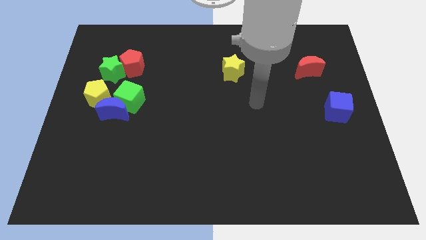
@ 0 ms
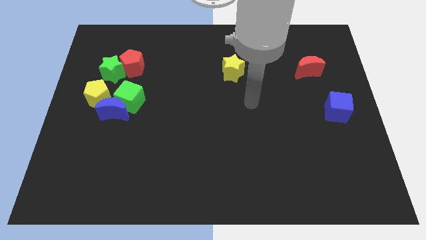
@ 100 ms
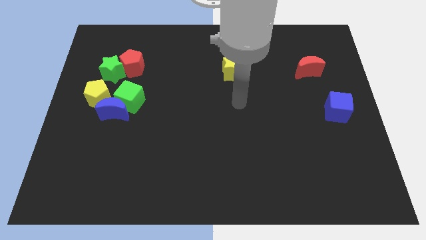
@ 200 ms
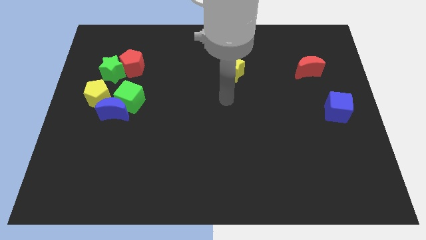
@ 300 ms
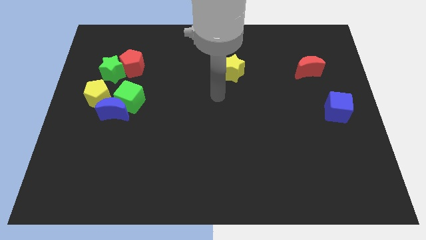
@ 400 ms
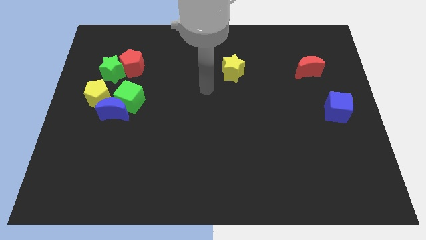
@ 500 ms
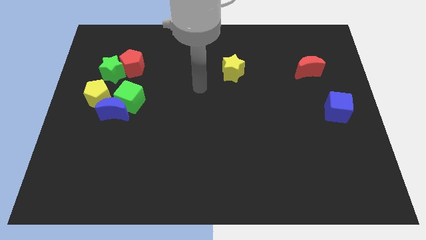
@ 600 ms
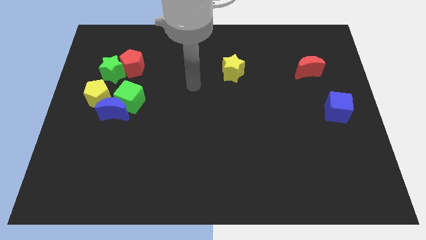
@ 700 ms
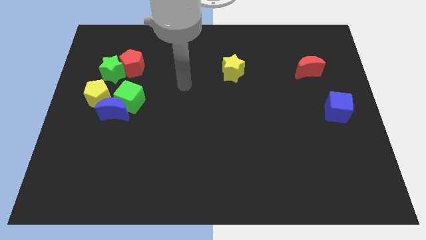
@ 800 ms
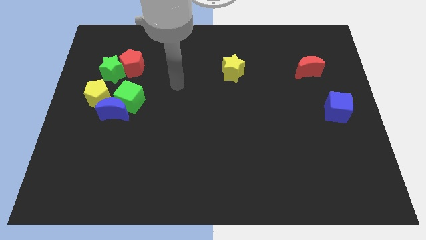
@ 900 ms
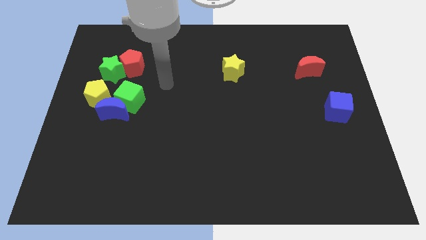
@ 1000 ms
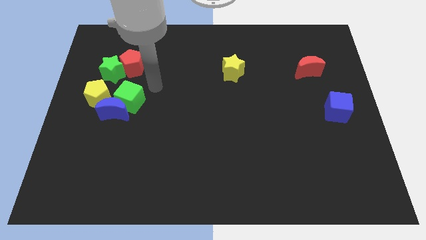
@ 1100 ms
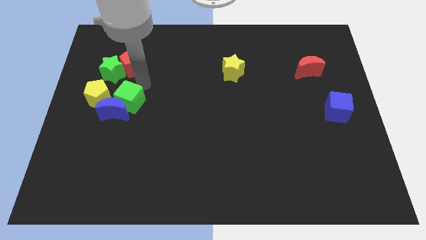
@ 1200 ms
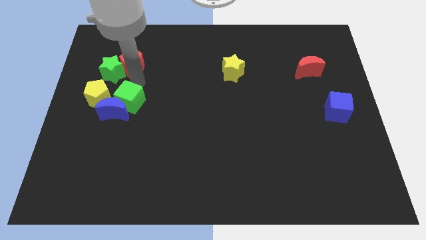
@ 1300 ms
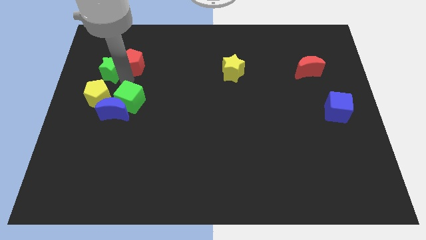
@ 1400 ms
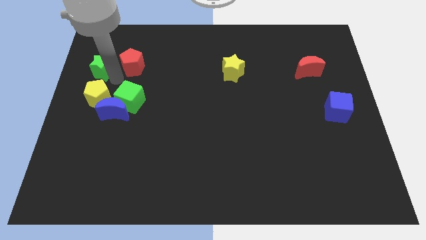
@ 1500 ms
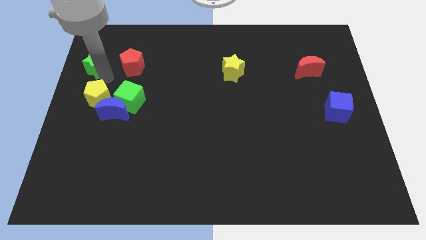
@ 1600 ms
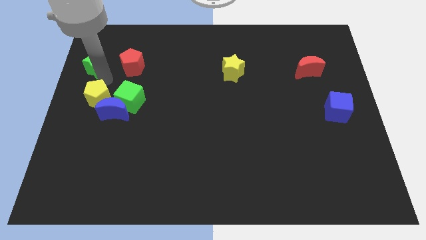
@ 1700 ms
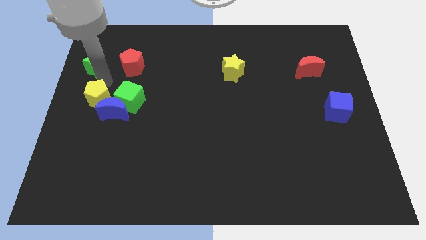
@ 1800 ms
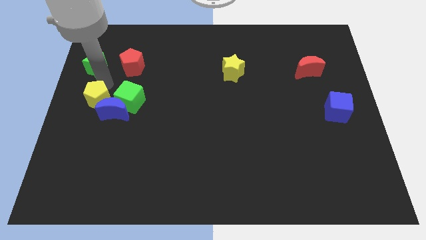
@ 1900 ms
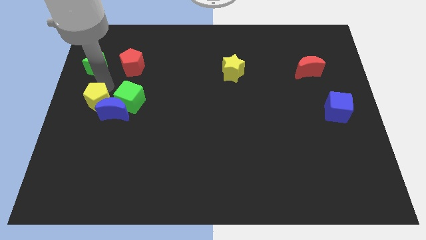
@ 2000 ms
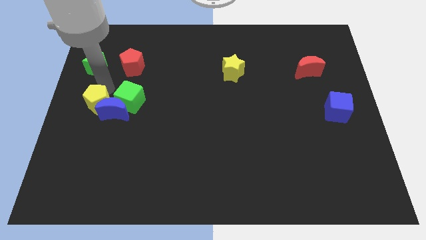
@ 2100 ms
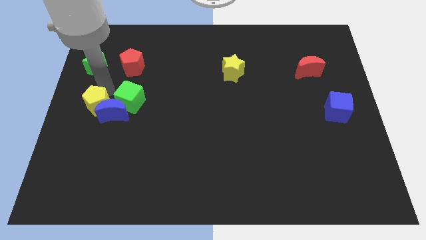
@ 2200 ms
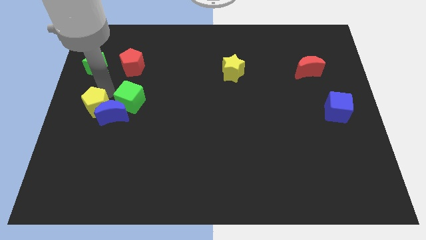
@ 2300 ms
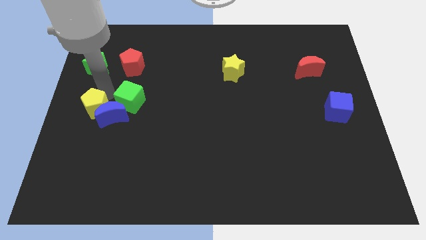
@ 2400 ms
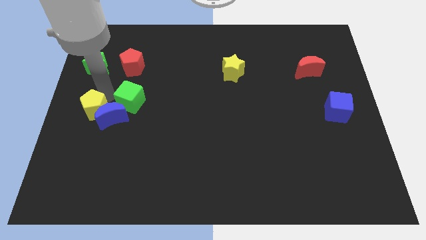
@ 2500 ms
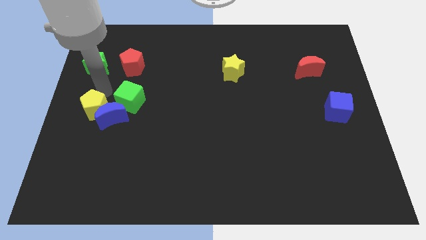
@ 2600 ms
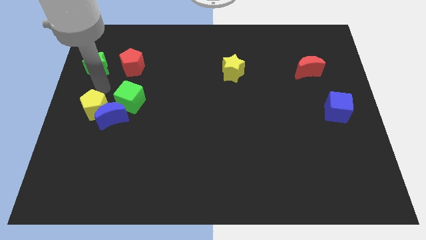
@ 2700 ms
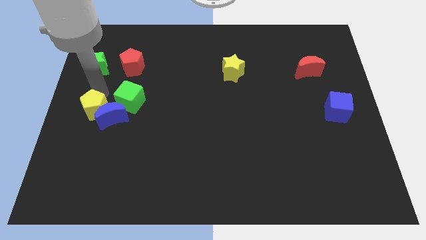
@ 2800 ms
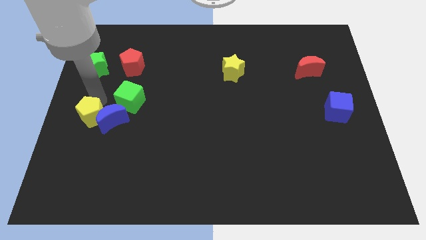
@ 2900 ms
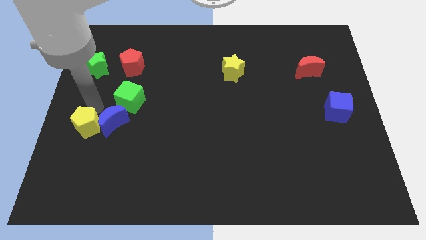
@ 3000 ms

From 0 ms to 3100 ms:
slide the yellow pentagon downwards a bit

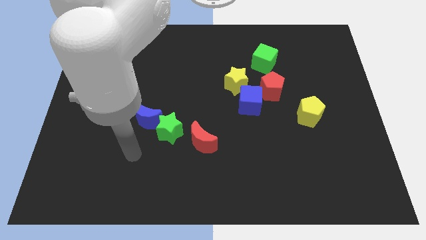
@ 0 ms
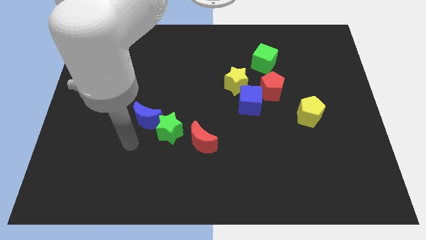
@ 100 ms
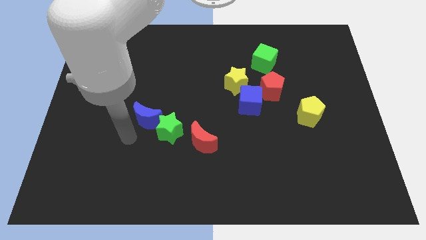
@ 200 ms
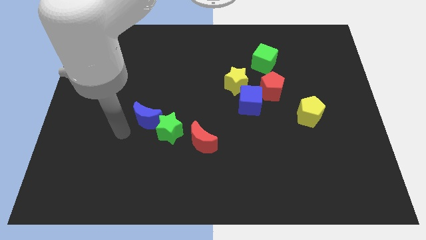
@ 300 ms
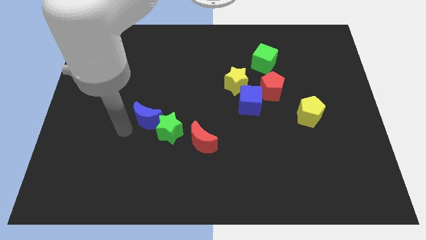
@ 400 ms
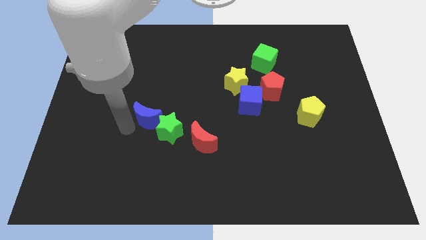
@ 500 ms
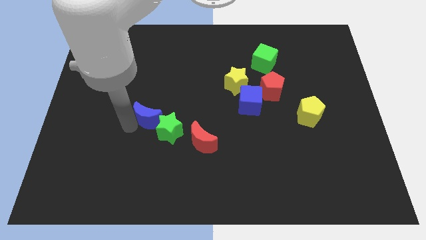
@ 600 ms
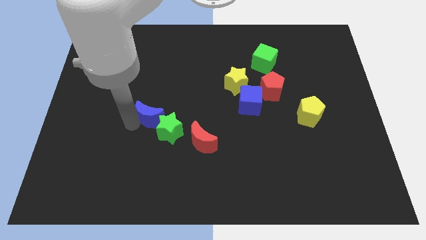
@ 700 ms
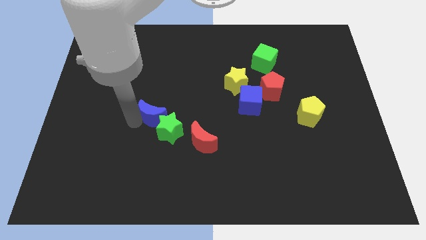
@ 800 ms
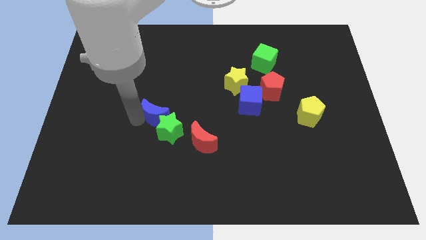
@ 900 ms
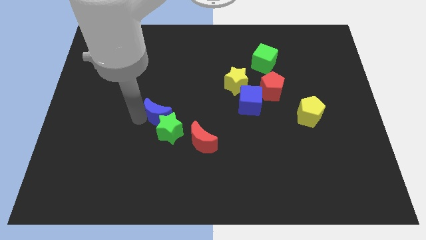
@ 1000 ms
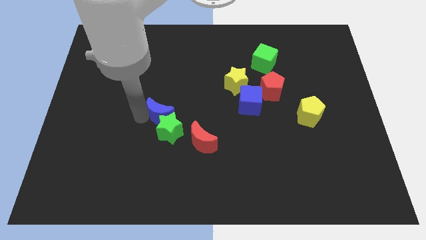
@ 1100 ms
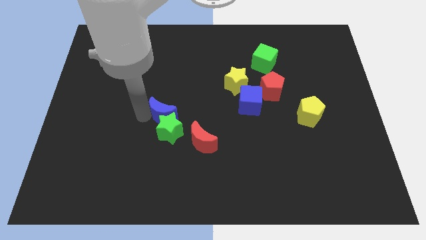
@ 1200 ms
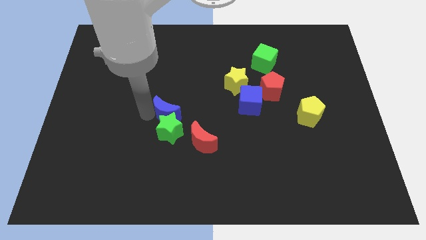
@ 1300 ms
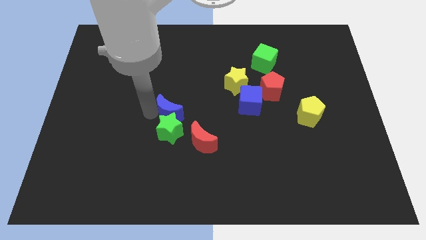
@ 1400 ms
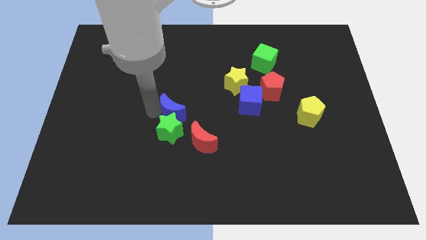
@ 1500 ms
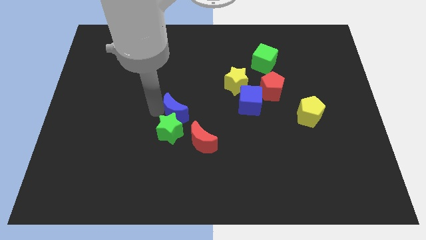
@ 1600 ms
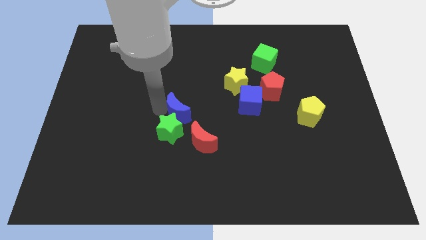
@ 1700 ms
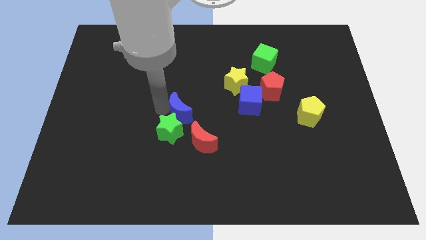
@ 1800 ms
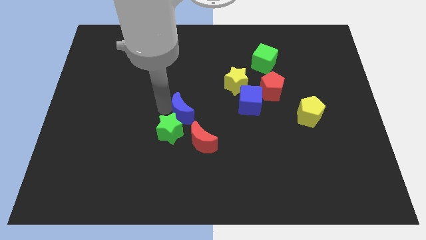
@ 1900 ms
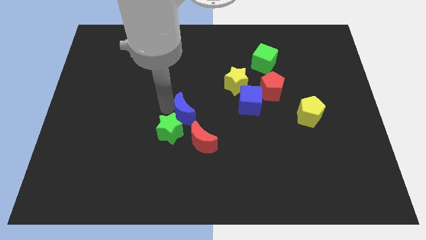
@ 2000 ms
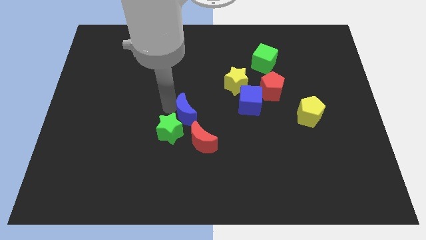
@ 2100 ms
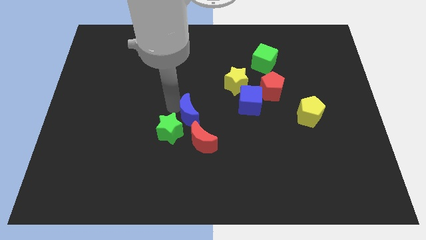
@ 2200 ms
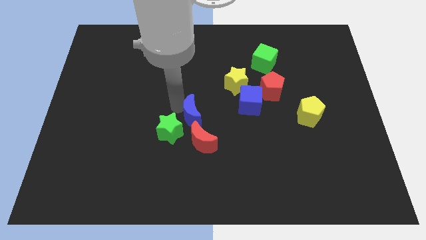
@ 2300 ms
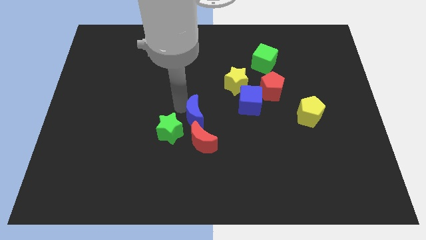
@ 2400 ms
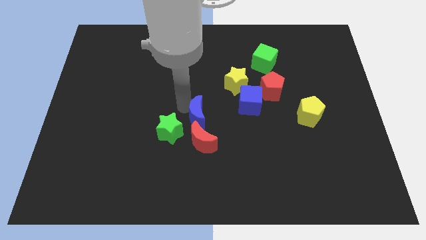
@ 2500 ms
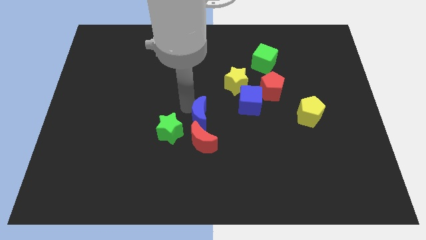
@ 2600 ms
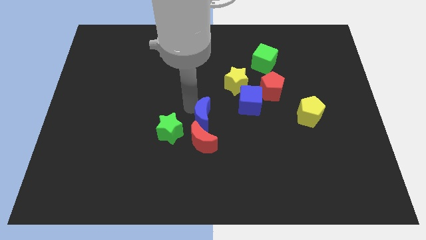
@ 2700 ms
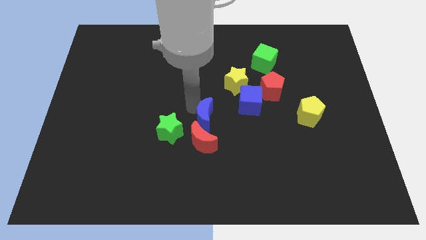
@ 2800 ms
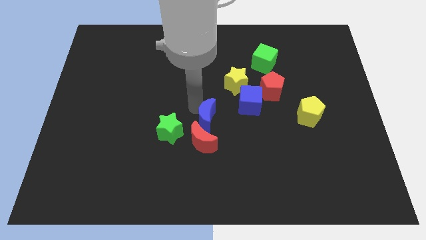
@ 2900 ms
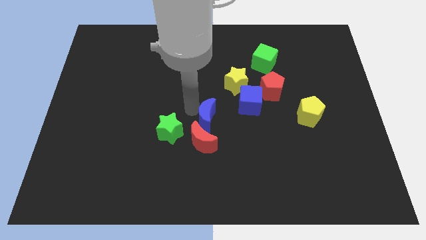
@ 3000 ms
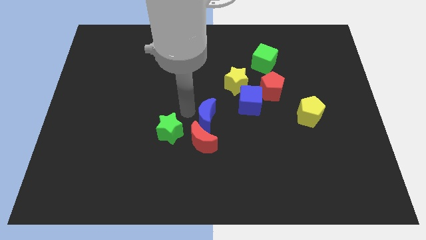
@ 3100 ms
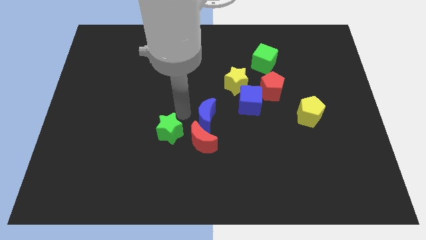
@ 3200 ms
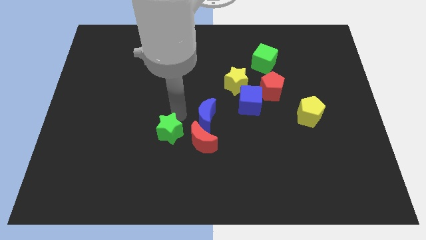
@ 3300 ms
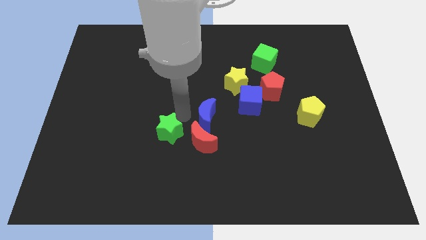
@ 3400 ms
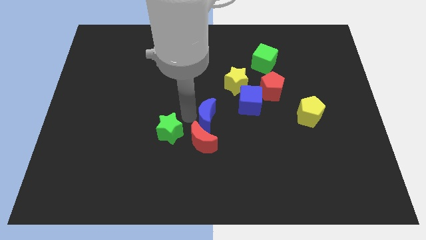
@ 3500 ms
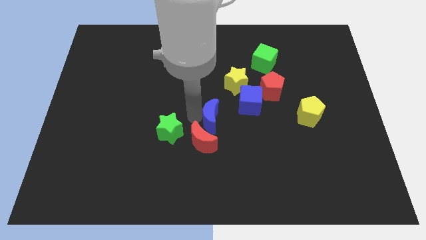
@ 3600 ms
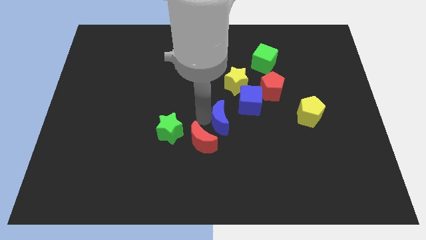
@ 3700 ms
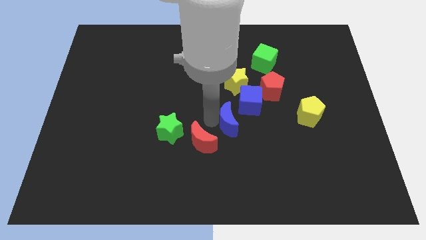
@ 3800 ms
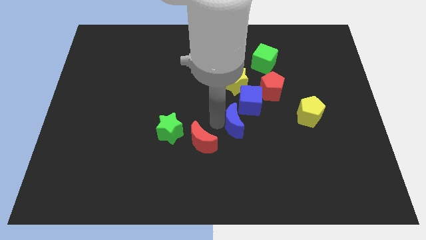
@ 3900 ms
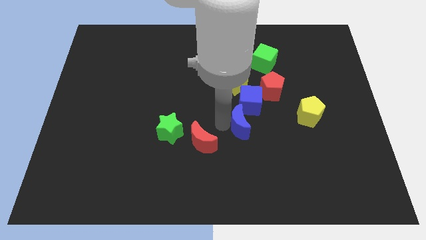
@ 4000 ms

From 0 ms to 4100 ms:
slide the blue moon to the right

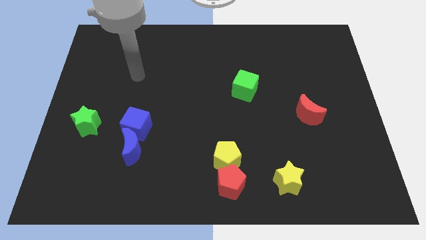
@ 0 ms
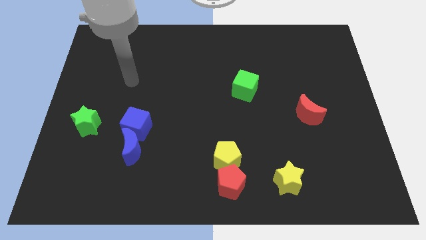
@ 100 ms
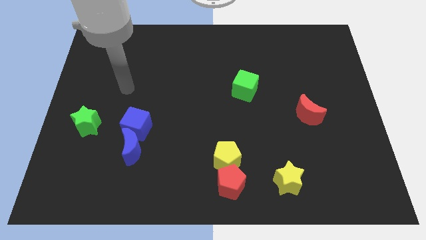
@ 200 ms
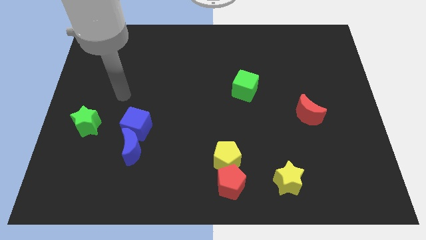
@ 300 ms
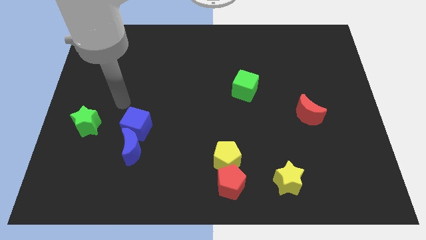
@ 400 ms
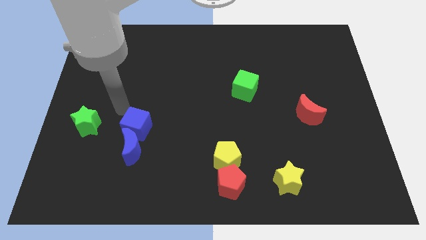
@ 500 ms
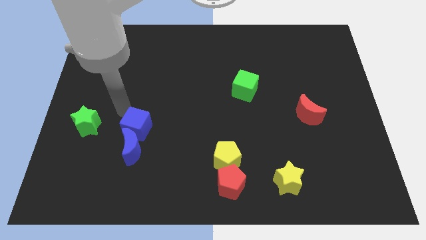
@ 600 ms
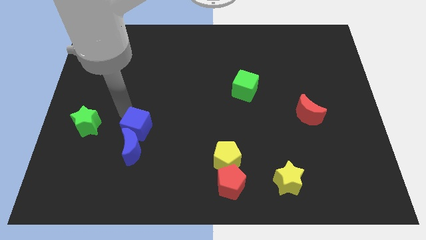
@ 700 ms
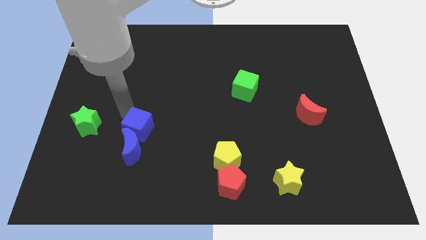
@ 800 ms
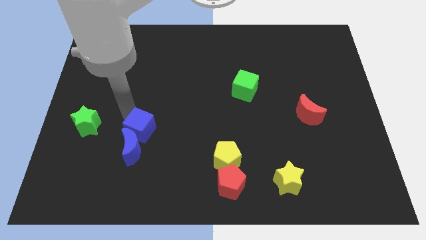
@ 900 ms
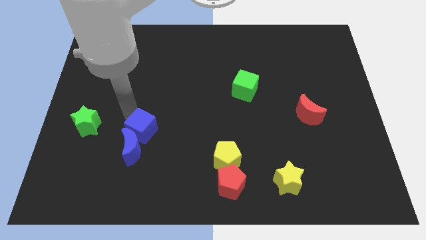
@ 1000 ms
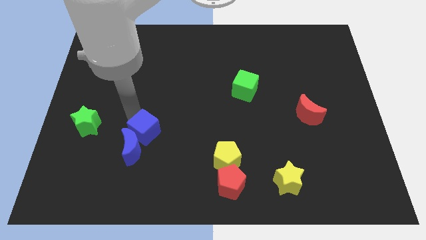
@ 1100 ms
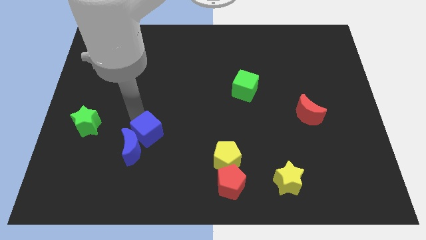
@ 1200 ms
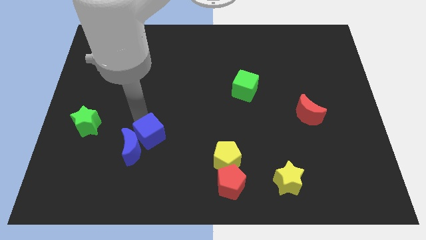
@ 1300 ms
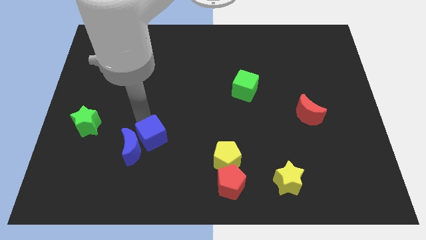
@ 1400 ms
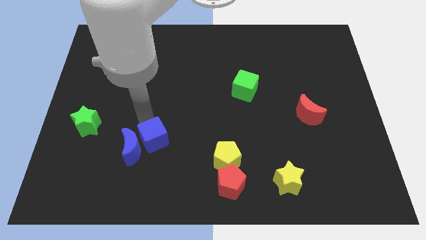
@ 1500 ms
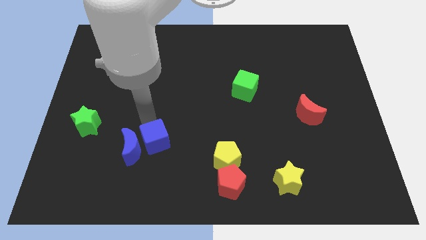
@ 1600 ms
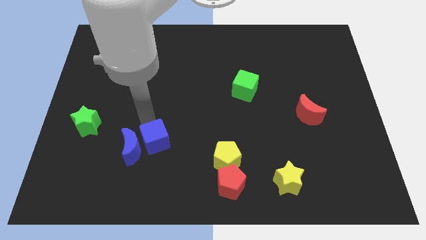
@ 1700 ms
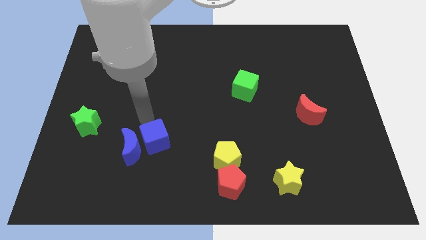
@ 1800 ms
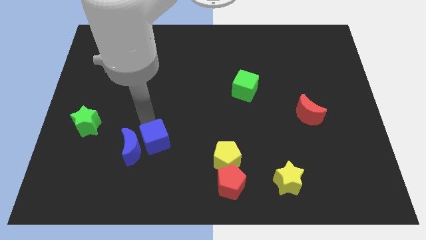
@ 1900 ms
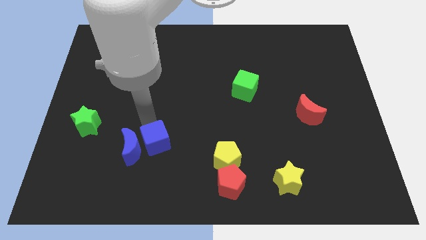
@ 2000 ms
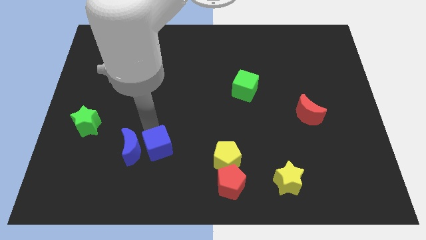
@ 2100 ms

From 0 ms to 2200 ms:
push the blue cube downwards and right diagonally a little bit
